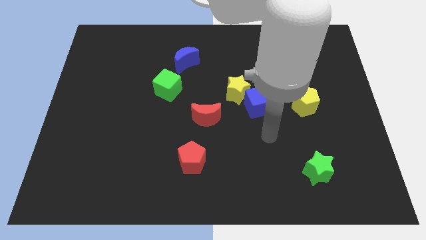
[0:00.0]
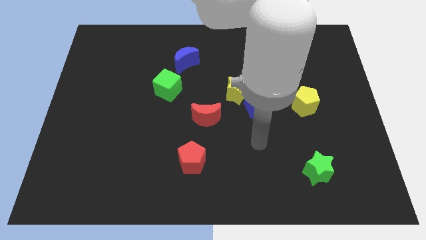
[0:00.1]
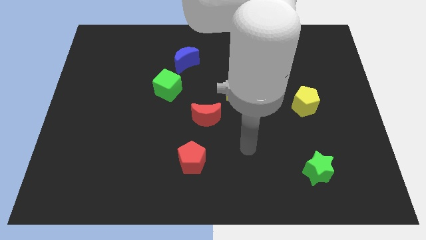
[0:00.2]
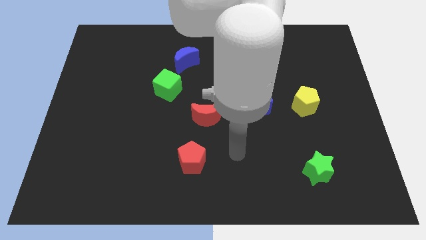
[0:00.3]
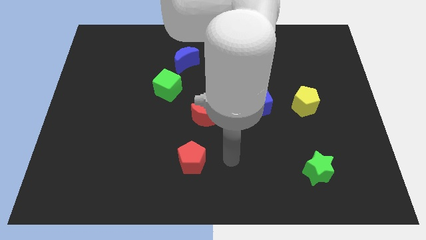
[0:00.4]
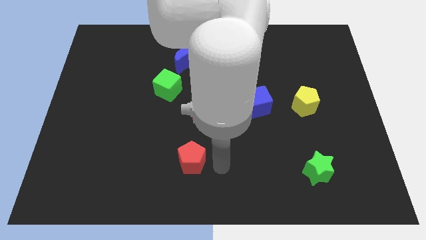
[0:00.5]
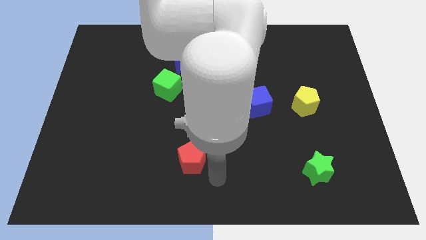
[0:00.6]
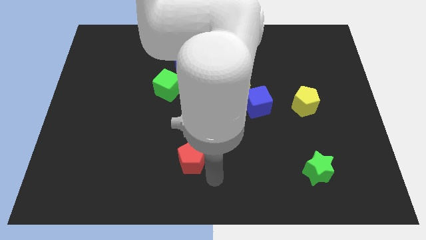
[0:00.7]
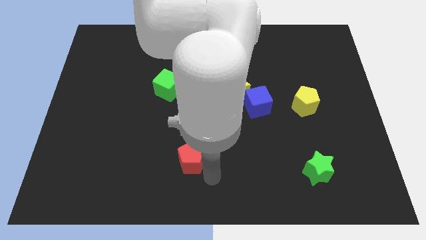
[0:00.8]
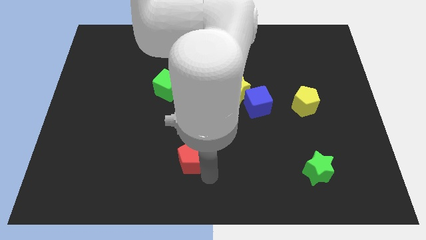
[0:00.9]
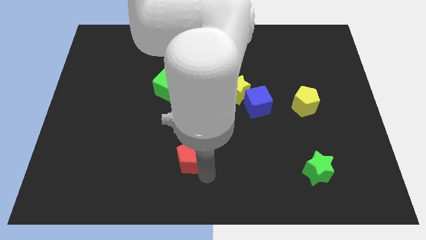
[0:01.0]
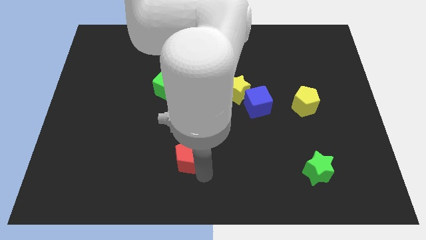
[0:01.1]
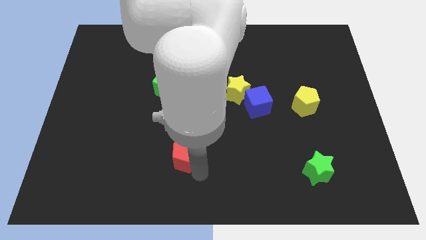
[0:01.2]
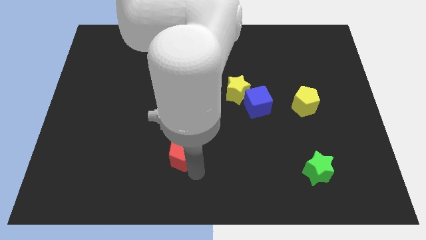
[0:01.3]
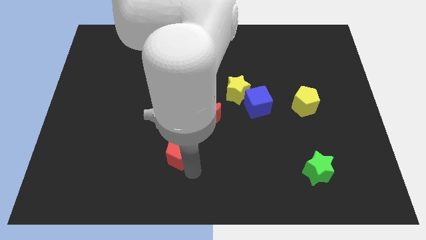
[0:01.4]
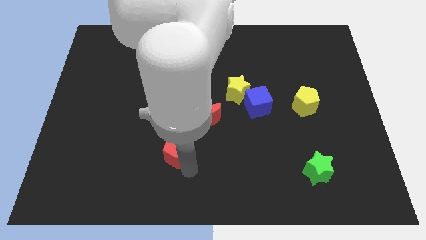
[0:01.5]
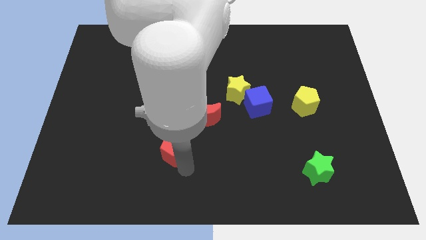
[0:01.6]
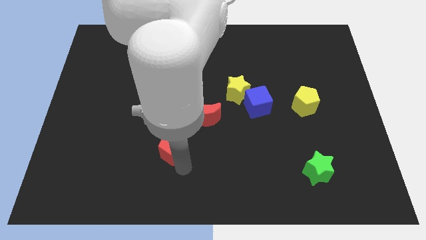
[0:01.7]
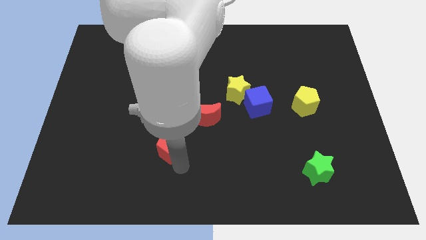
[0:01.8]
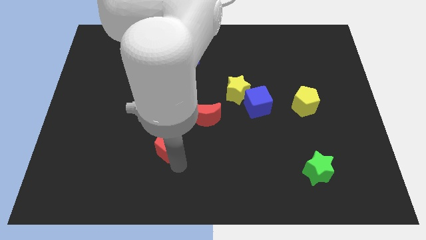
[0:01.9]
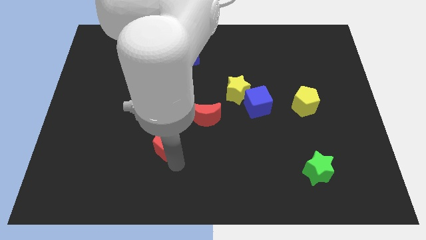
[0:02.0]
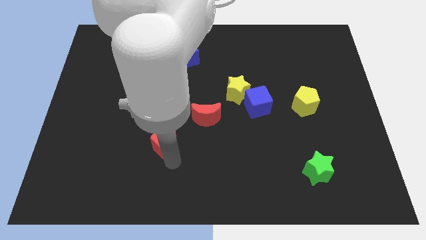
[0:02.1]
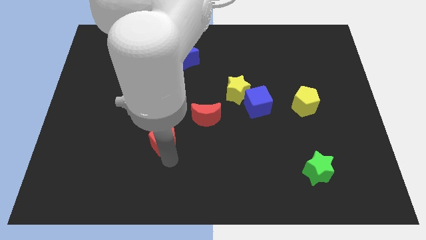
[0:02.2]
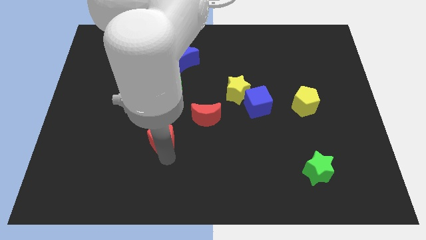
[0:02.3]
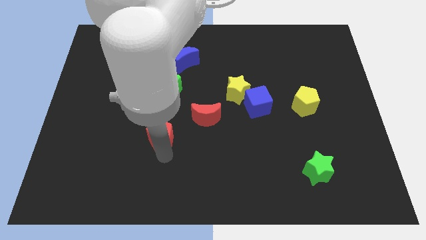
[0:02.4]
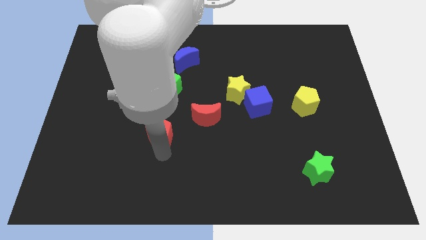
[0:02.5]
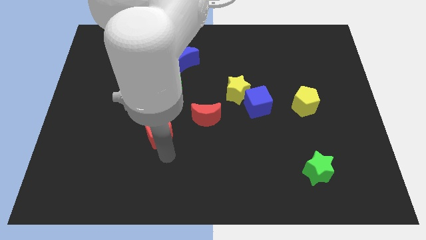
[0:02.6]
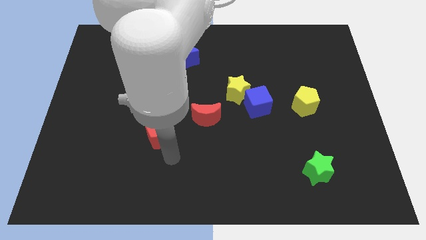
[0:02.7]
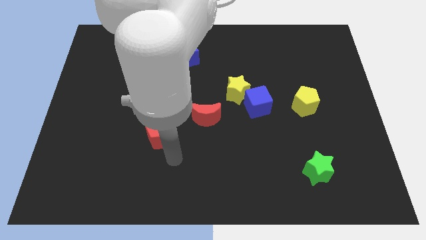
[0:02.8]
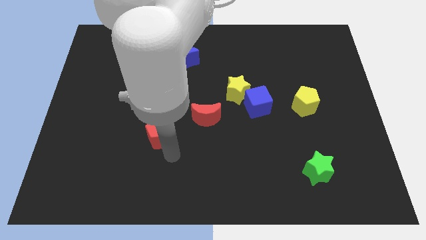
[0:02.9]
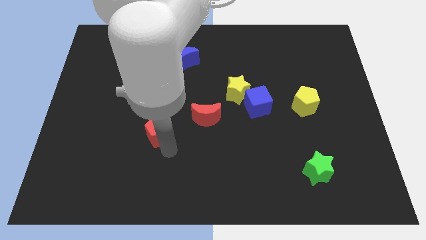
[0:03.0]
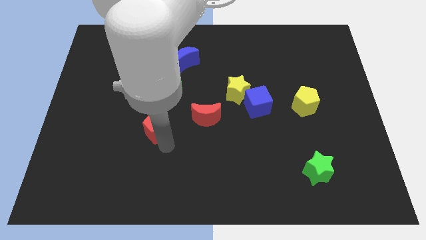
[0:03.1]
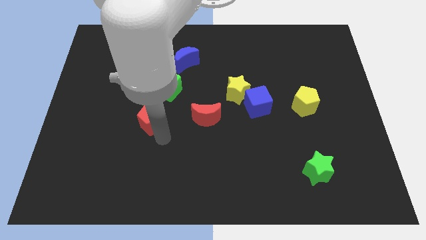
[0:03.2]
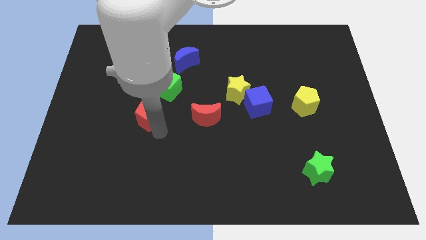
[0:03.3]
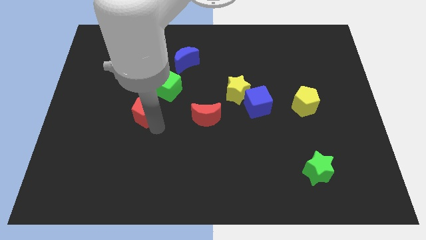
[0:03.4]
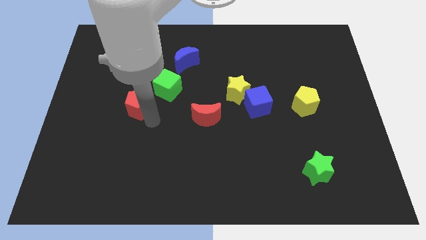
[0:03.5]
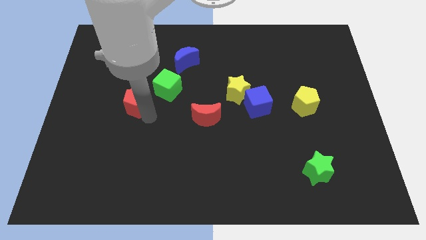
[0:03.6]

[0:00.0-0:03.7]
push the red pentagon diagonally up and left

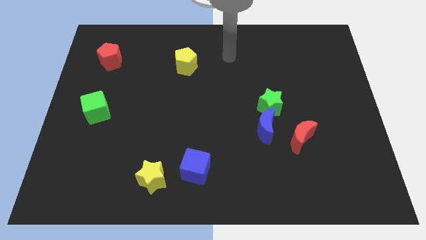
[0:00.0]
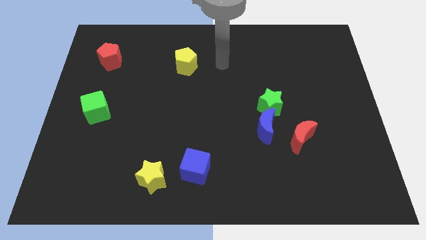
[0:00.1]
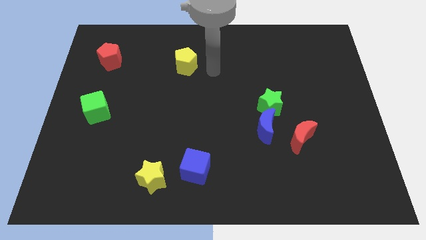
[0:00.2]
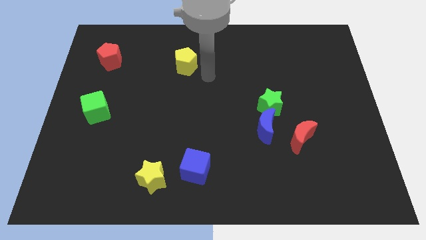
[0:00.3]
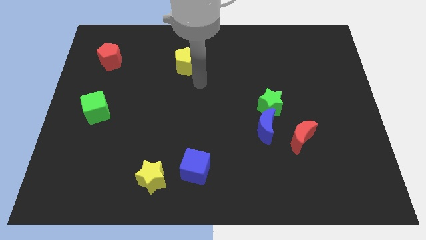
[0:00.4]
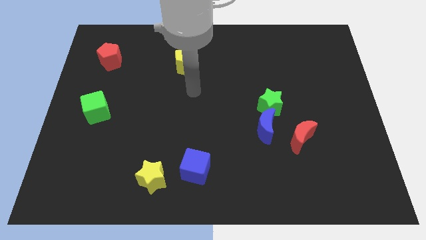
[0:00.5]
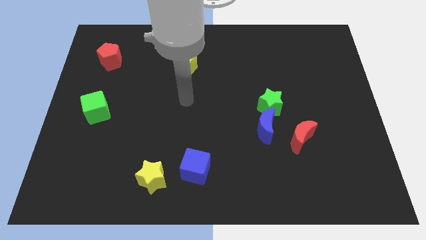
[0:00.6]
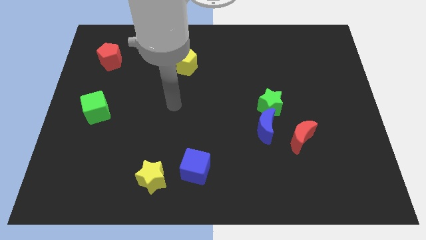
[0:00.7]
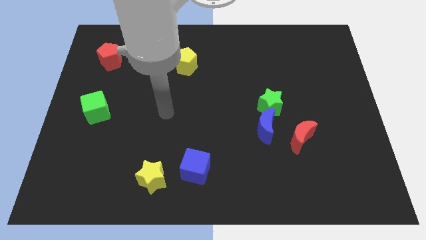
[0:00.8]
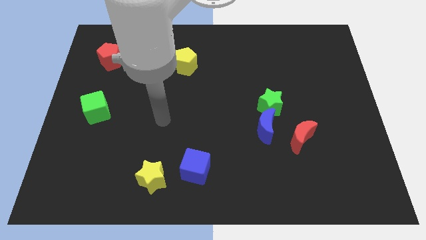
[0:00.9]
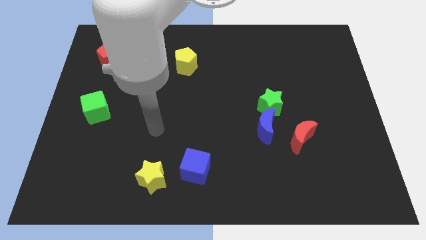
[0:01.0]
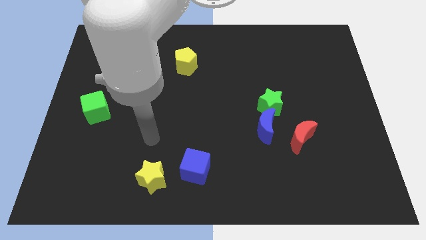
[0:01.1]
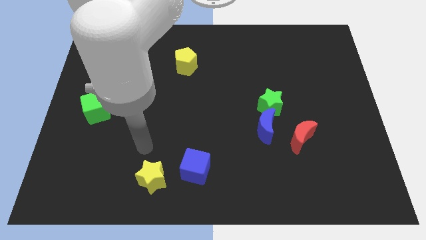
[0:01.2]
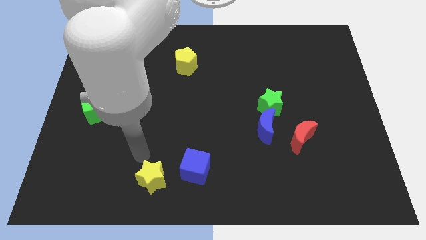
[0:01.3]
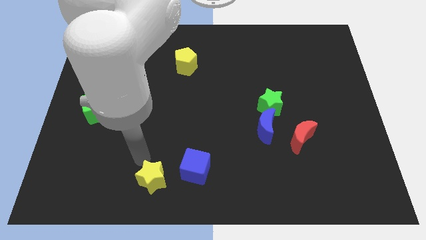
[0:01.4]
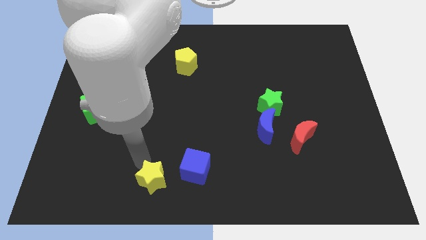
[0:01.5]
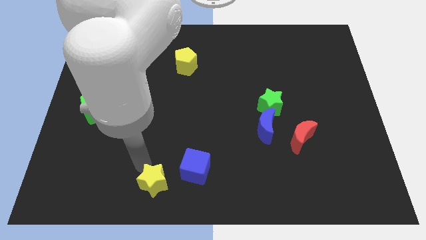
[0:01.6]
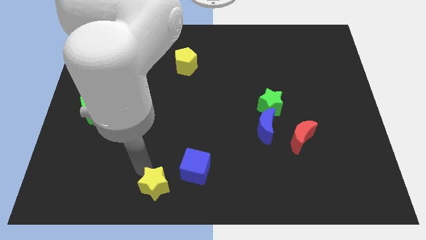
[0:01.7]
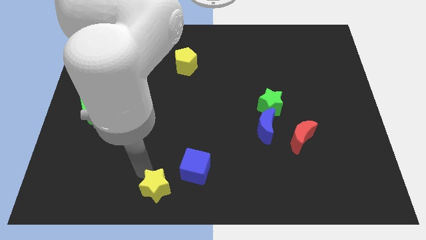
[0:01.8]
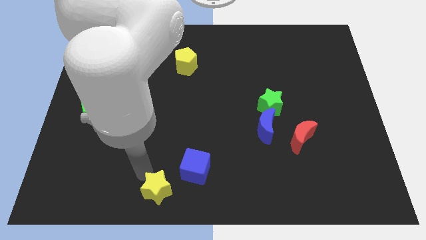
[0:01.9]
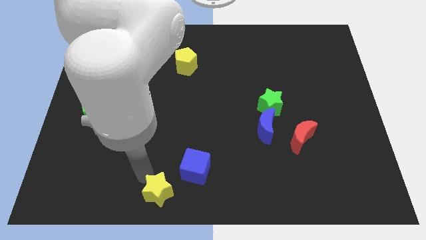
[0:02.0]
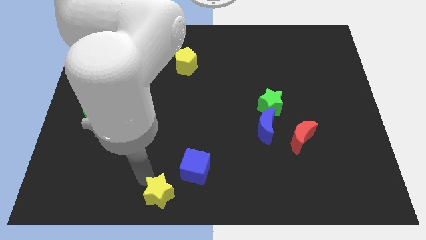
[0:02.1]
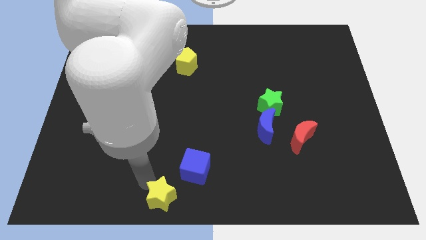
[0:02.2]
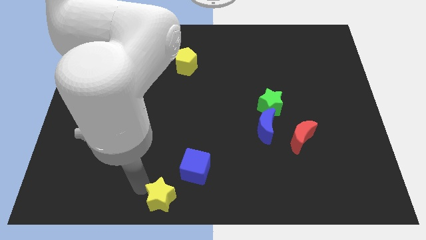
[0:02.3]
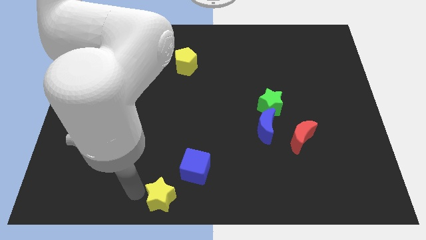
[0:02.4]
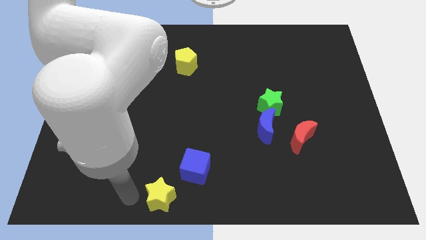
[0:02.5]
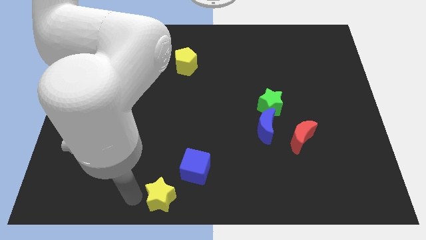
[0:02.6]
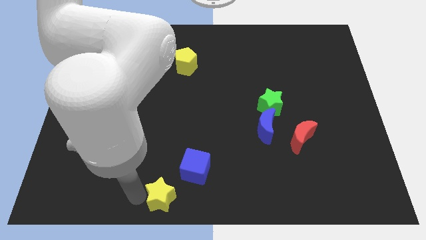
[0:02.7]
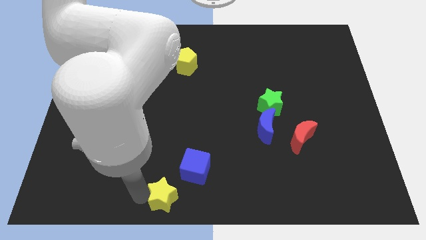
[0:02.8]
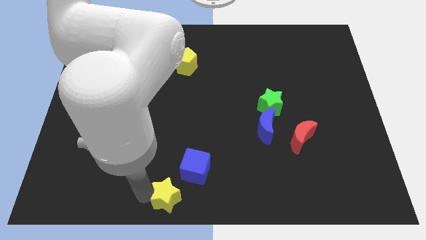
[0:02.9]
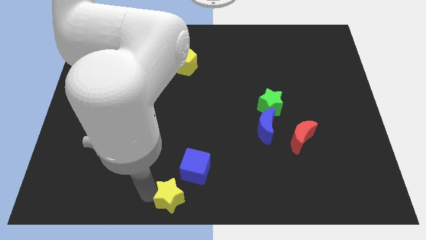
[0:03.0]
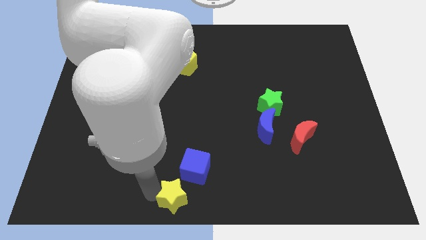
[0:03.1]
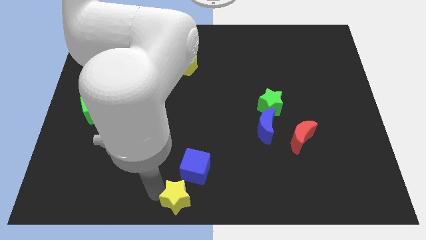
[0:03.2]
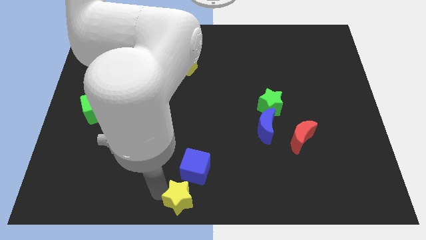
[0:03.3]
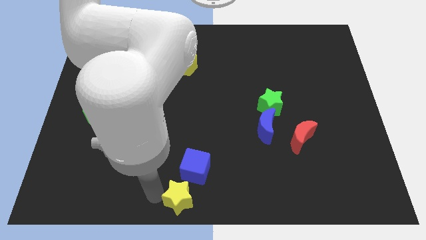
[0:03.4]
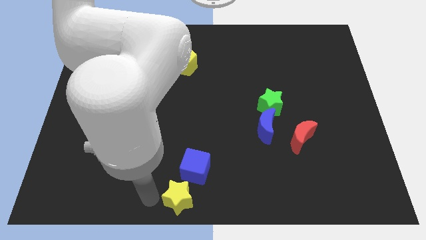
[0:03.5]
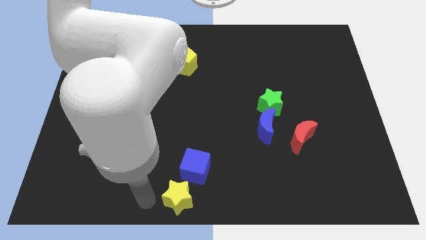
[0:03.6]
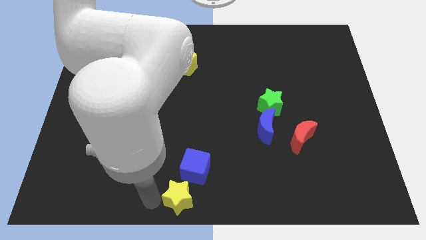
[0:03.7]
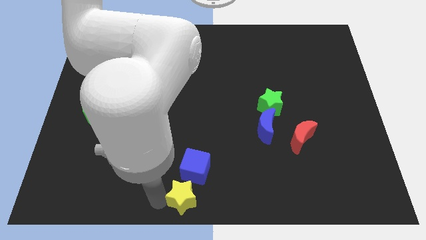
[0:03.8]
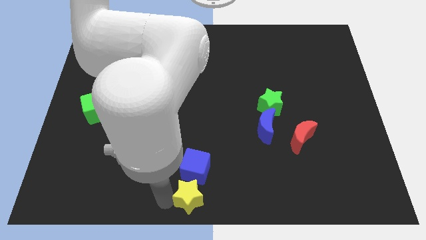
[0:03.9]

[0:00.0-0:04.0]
slide the yellow star a bit right

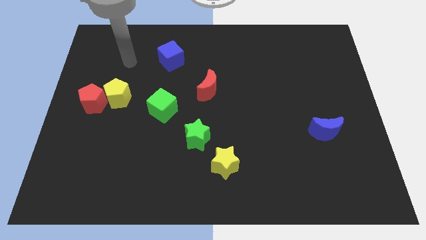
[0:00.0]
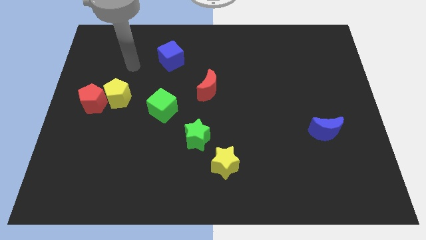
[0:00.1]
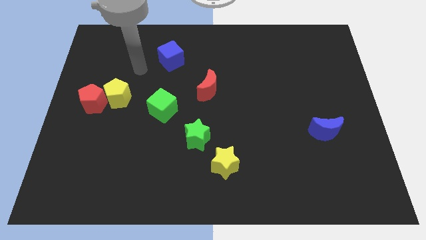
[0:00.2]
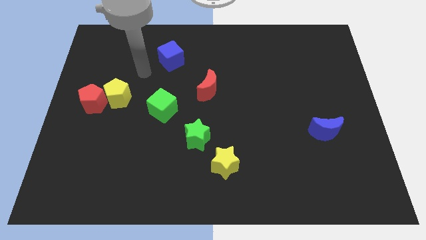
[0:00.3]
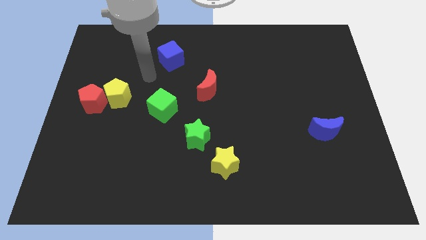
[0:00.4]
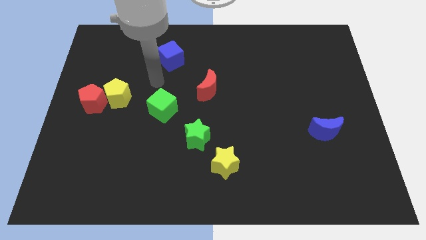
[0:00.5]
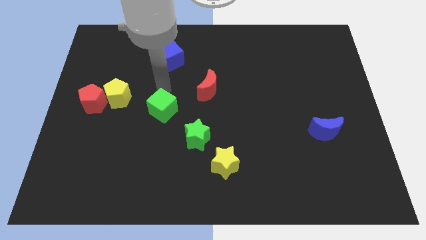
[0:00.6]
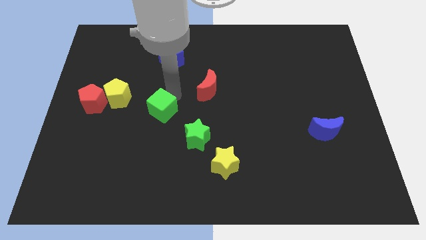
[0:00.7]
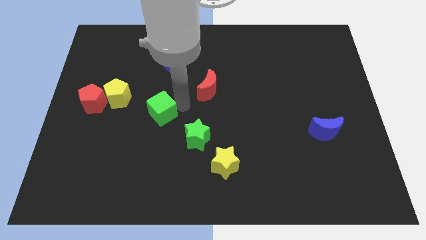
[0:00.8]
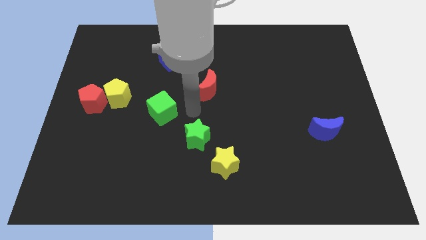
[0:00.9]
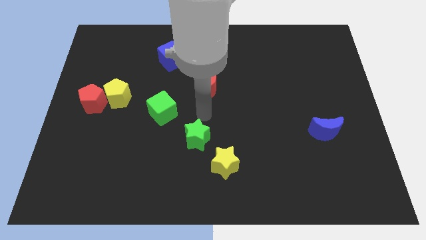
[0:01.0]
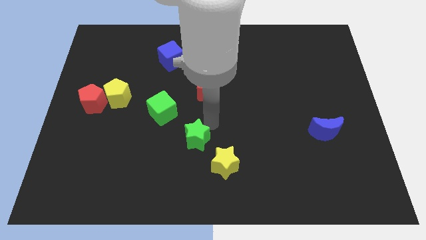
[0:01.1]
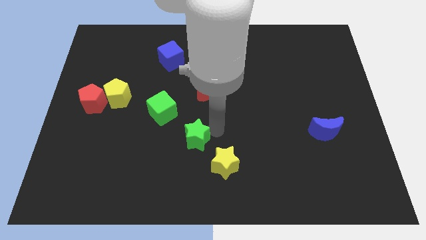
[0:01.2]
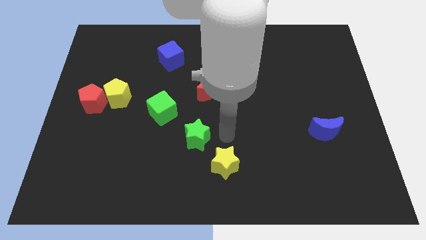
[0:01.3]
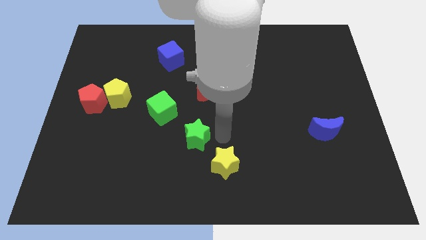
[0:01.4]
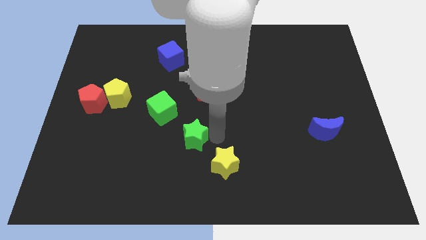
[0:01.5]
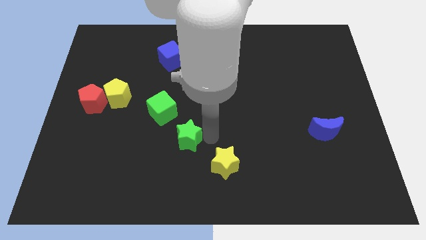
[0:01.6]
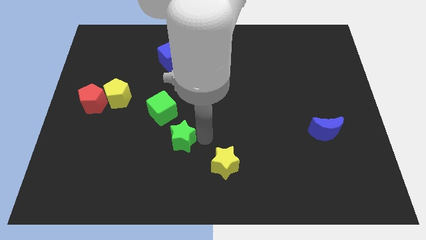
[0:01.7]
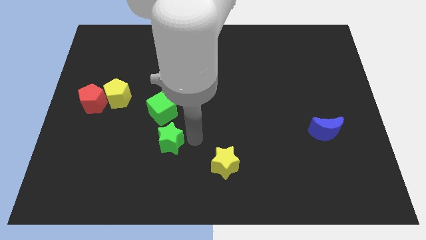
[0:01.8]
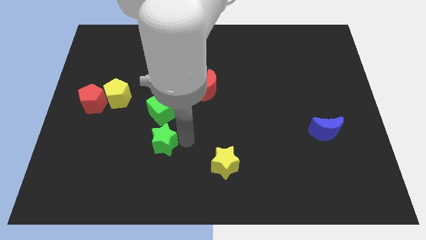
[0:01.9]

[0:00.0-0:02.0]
move the green star left a little
